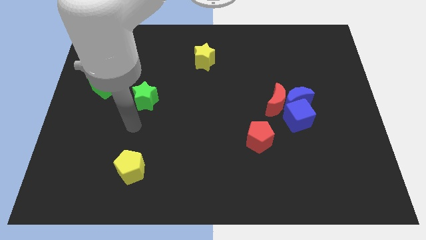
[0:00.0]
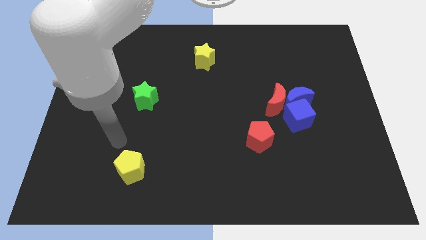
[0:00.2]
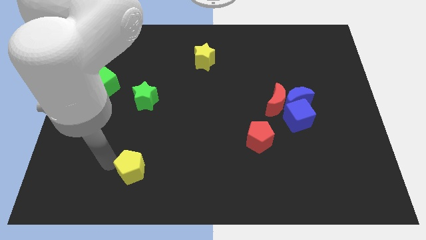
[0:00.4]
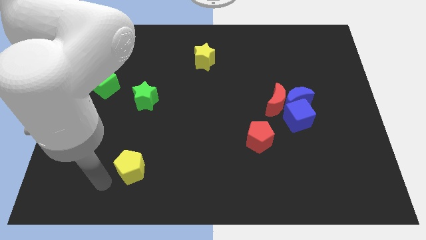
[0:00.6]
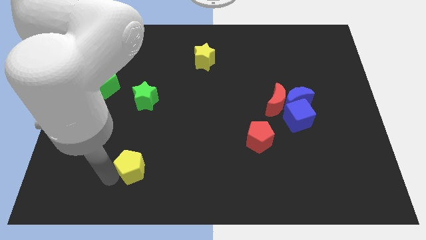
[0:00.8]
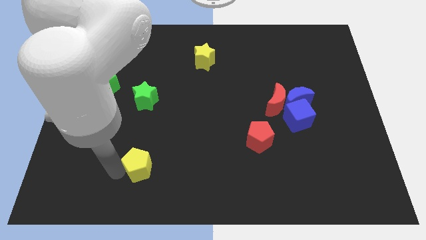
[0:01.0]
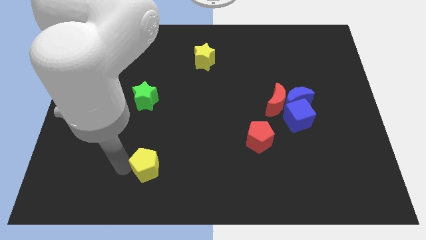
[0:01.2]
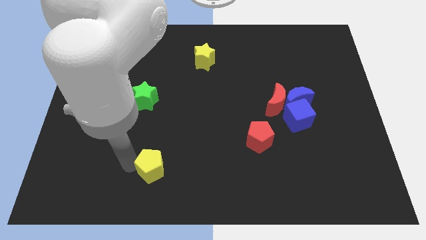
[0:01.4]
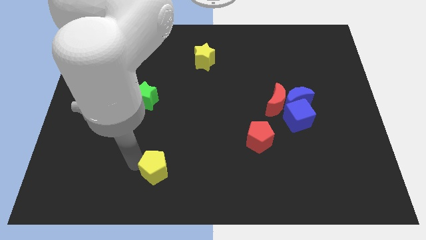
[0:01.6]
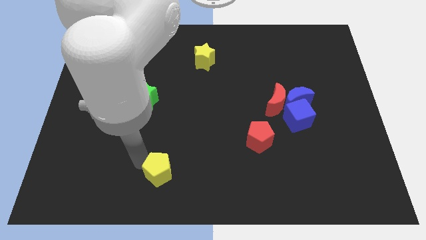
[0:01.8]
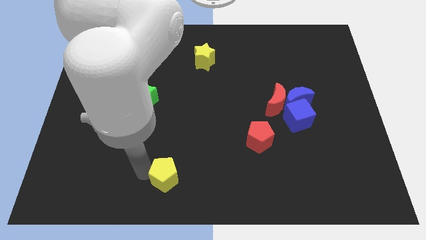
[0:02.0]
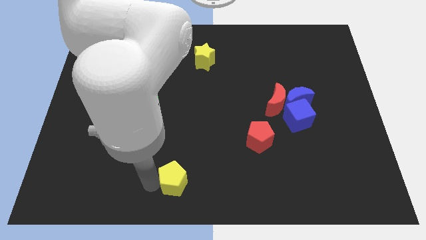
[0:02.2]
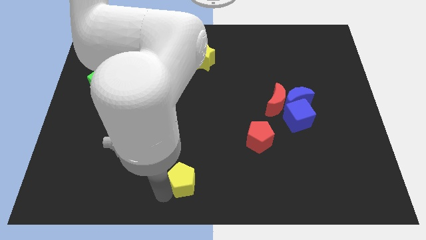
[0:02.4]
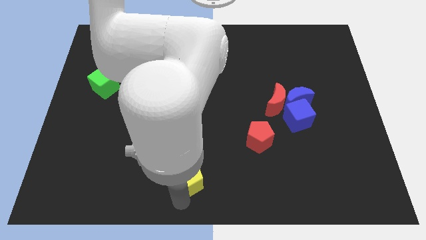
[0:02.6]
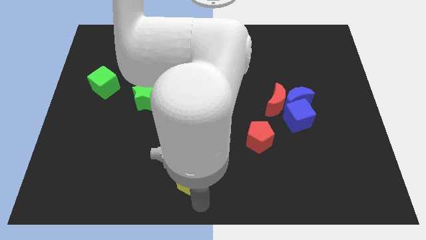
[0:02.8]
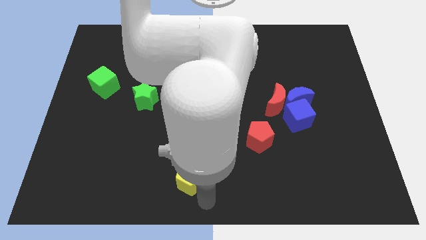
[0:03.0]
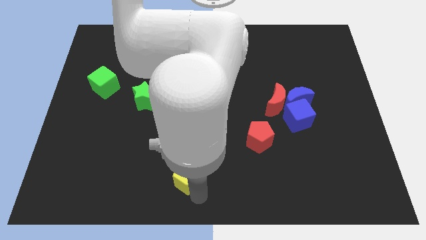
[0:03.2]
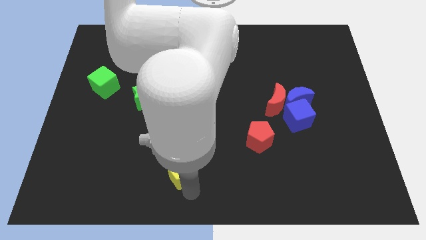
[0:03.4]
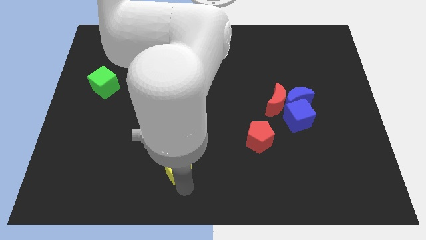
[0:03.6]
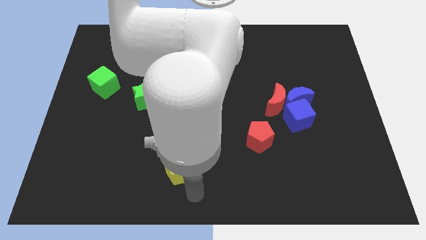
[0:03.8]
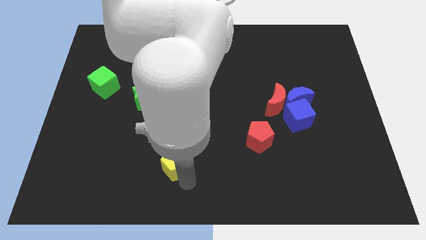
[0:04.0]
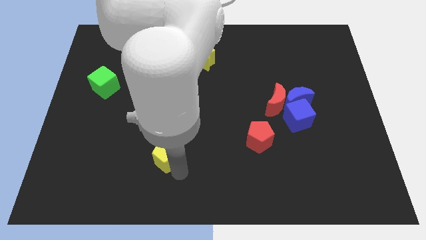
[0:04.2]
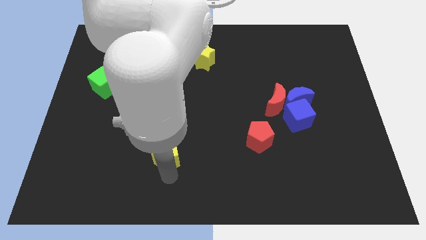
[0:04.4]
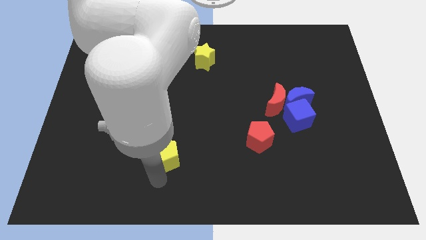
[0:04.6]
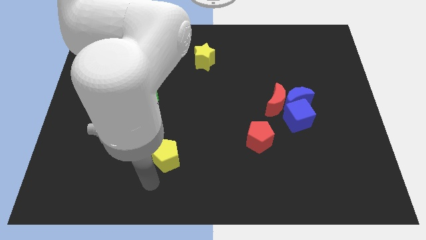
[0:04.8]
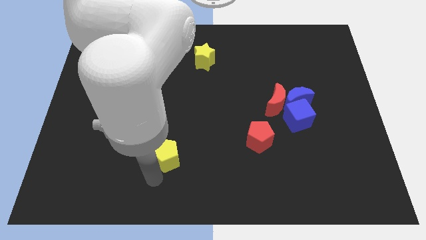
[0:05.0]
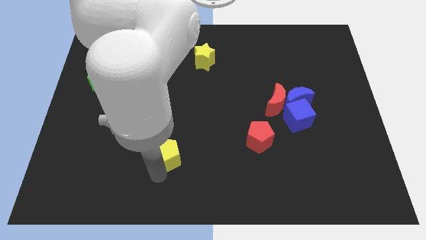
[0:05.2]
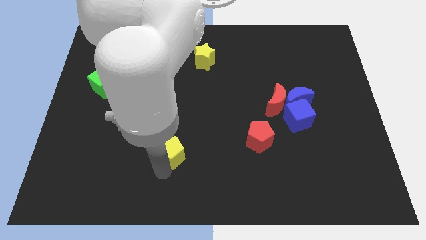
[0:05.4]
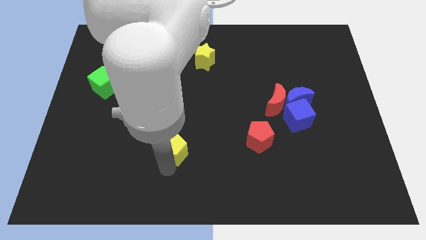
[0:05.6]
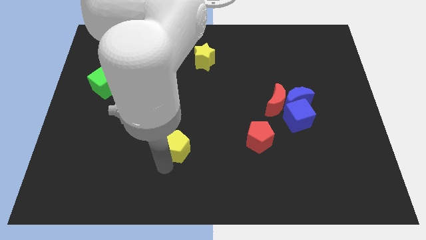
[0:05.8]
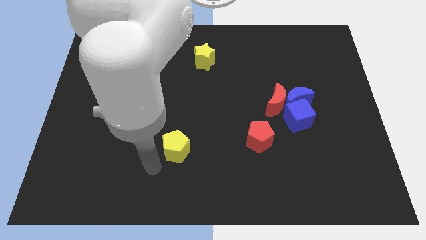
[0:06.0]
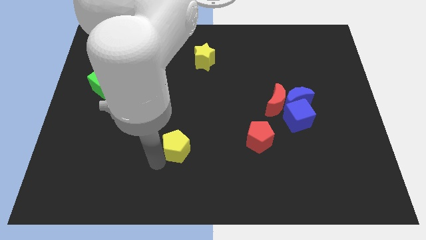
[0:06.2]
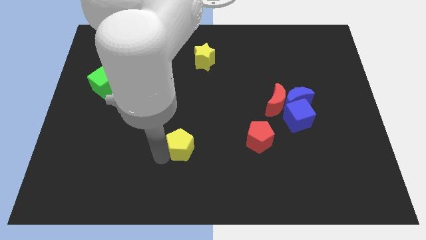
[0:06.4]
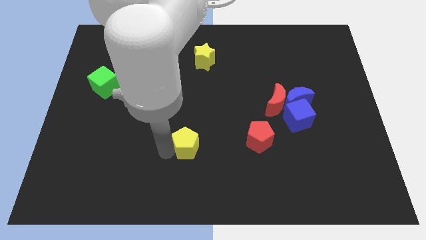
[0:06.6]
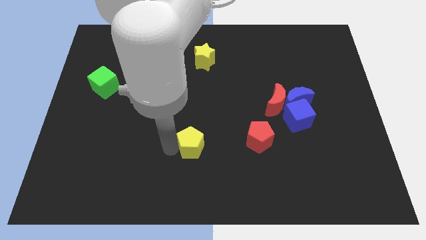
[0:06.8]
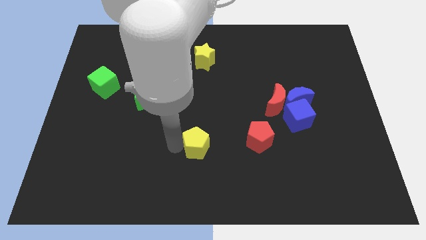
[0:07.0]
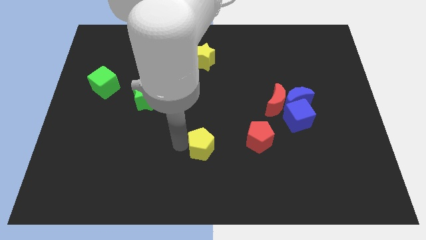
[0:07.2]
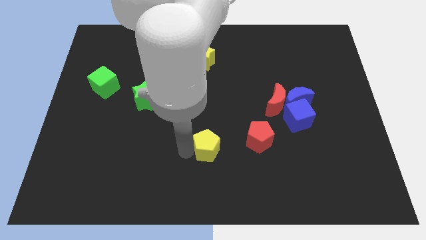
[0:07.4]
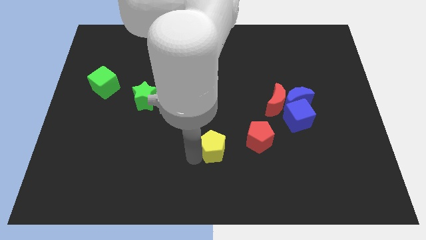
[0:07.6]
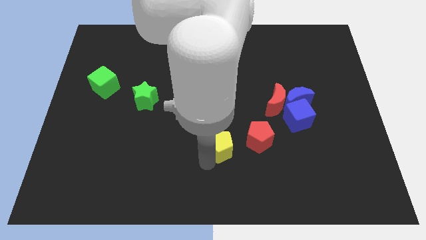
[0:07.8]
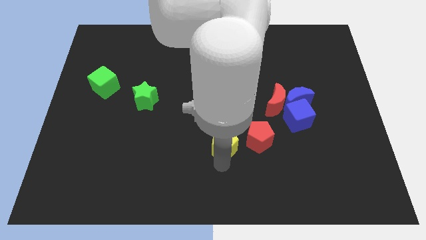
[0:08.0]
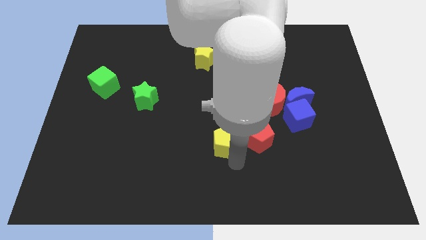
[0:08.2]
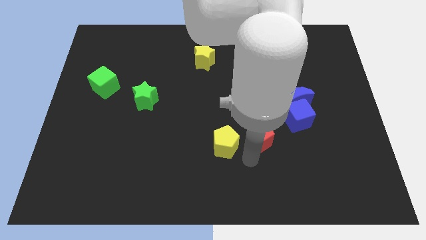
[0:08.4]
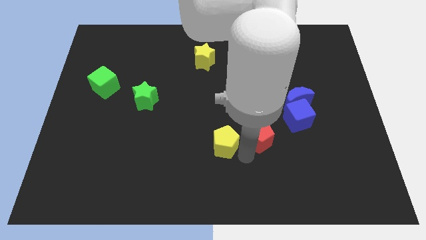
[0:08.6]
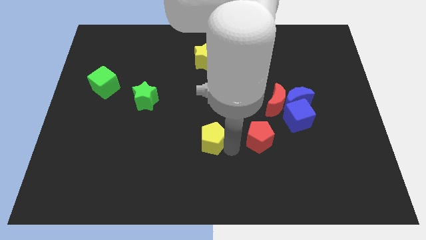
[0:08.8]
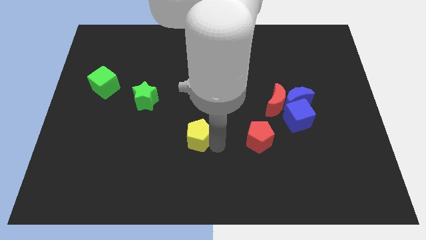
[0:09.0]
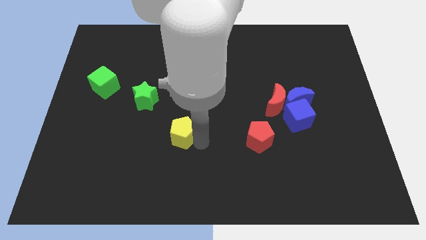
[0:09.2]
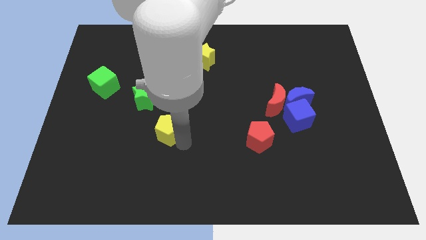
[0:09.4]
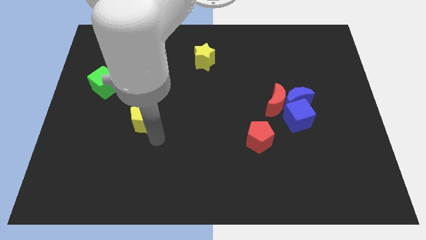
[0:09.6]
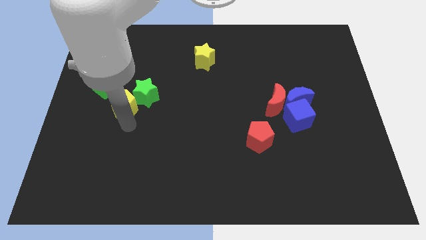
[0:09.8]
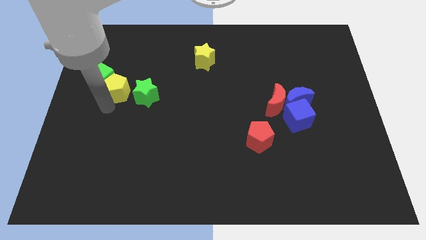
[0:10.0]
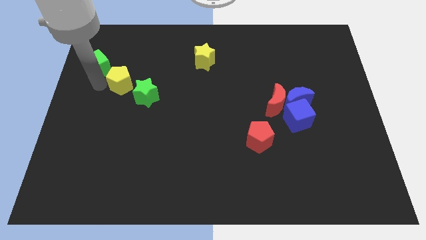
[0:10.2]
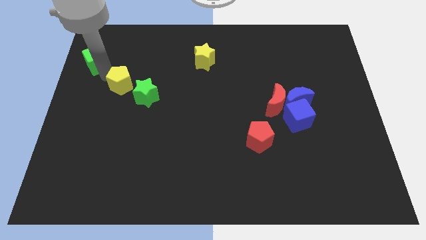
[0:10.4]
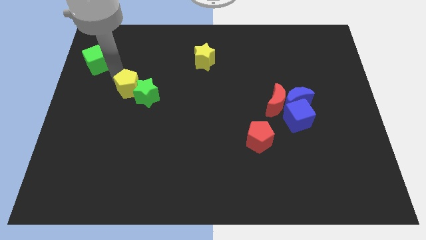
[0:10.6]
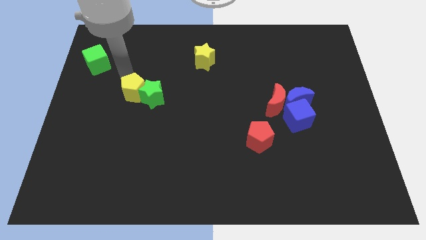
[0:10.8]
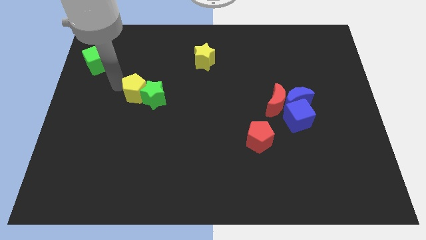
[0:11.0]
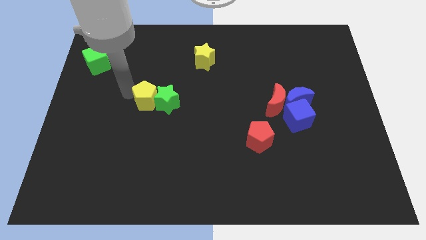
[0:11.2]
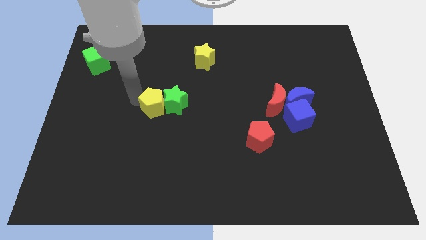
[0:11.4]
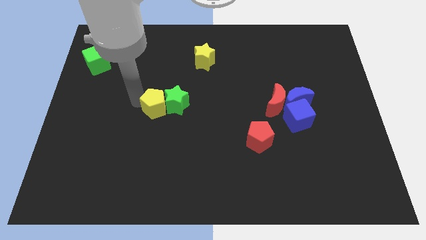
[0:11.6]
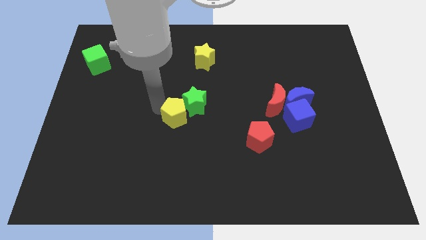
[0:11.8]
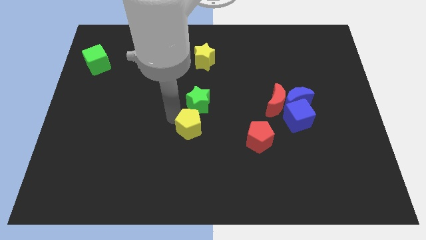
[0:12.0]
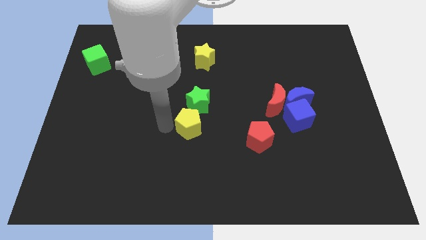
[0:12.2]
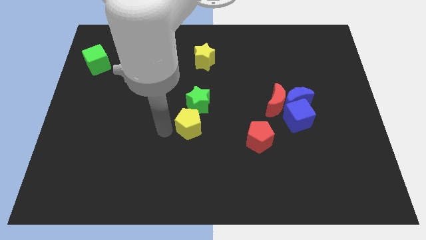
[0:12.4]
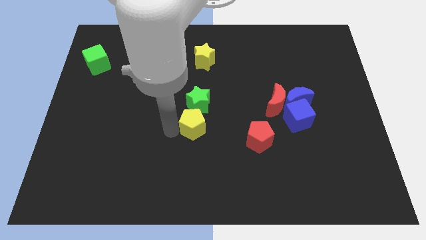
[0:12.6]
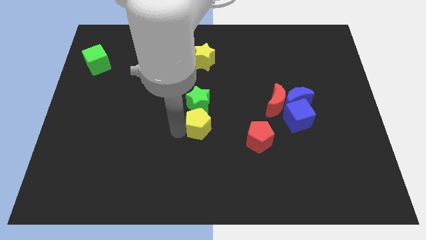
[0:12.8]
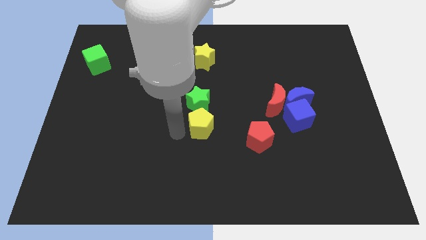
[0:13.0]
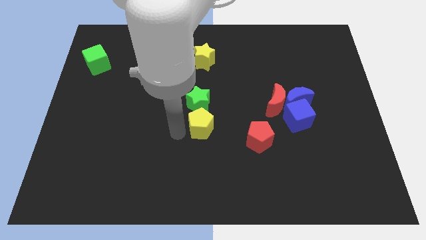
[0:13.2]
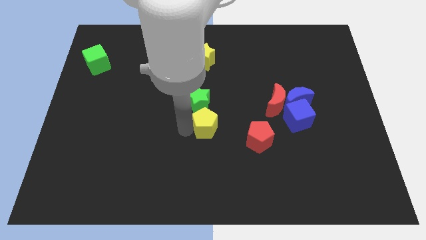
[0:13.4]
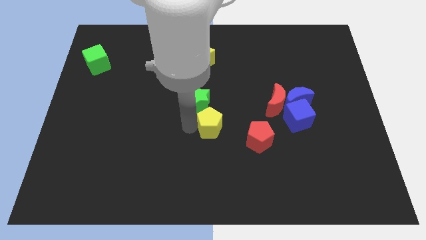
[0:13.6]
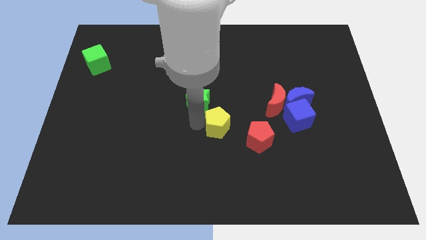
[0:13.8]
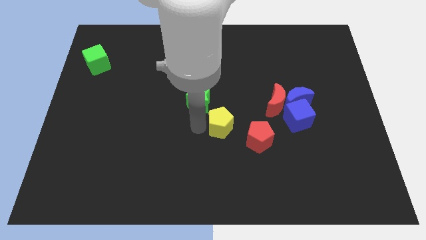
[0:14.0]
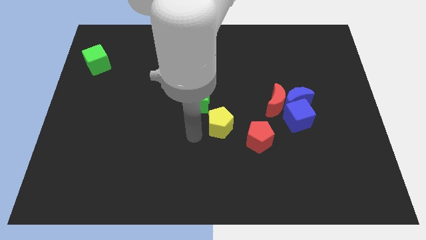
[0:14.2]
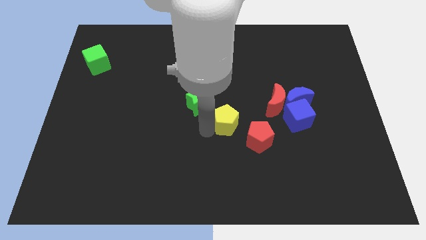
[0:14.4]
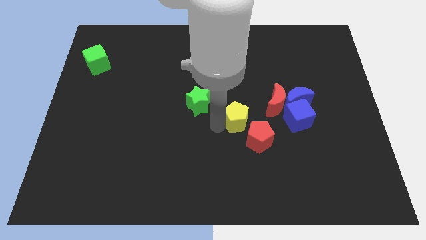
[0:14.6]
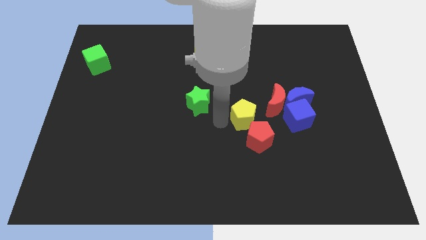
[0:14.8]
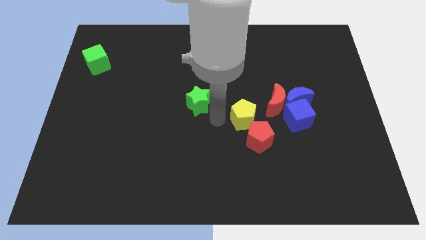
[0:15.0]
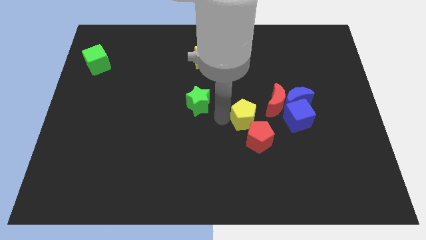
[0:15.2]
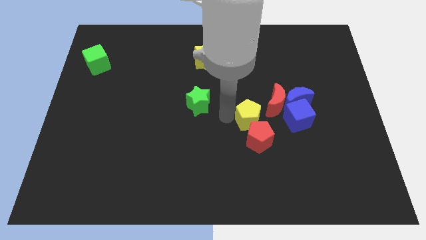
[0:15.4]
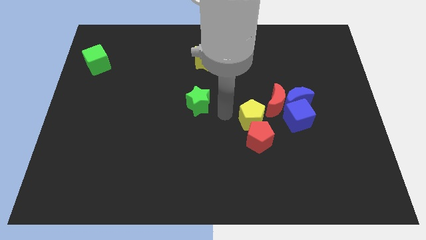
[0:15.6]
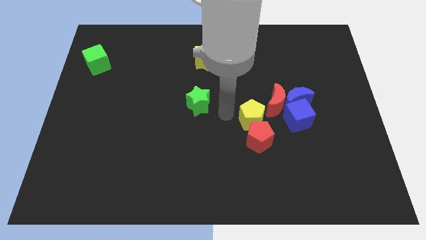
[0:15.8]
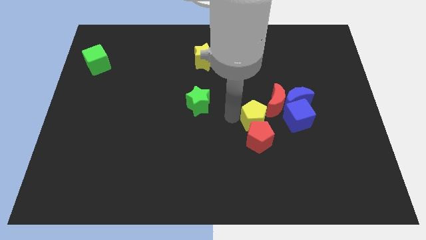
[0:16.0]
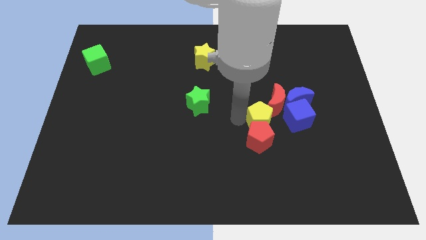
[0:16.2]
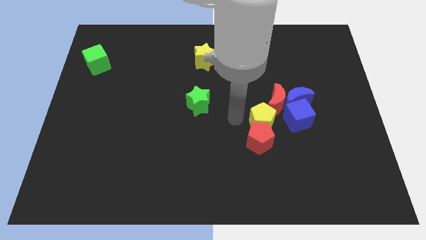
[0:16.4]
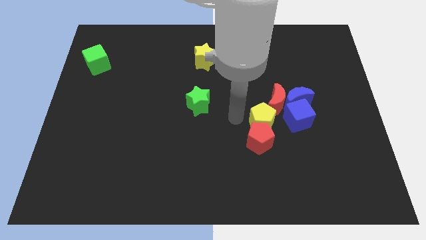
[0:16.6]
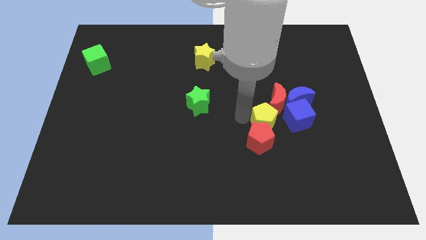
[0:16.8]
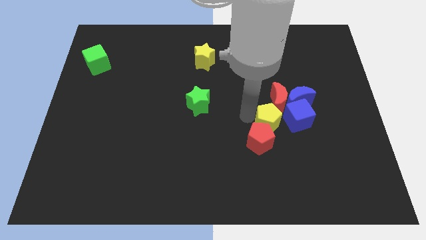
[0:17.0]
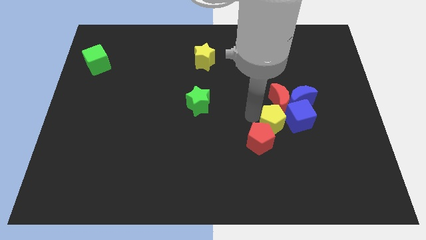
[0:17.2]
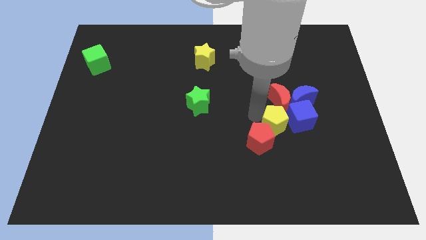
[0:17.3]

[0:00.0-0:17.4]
slide the yellow pentagon next to the blue cube
